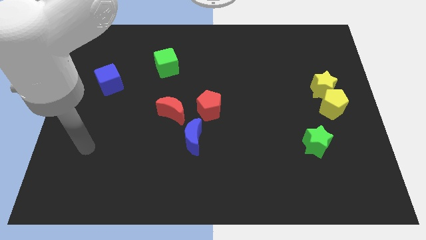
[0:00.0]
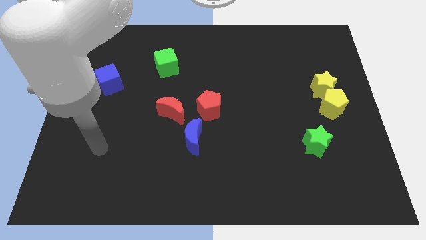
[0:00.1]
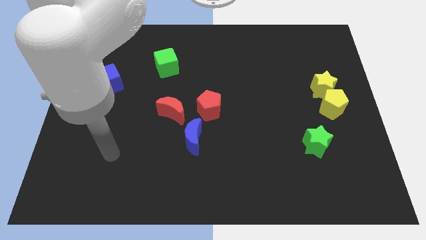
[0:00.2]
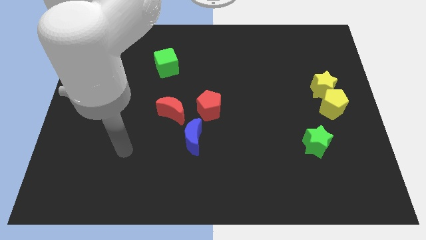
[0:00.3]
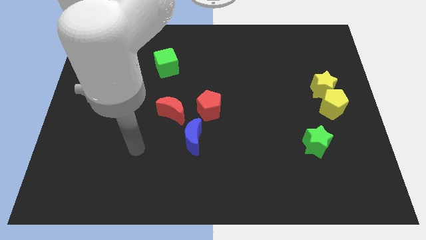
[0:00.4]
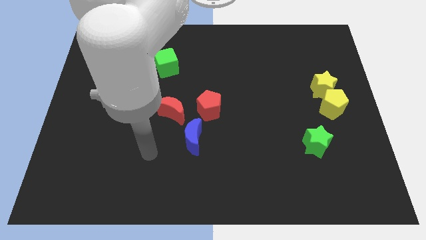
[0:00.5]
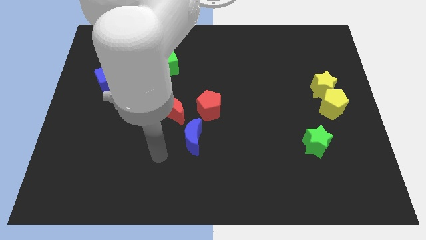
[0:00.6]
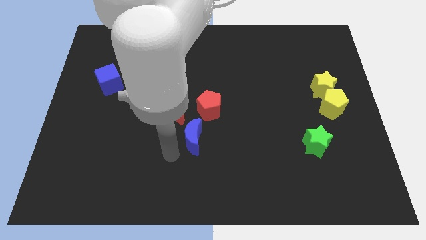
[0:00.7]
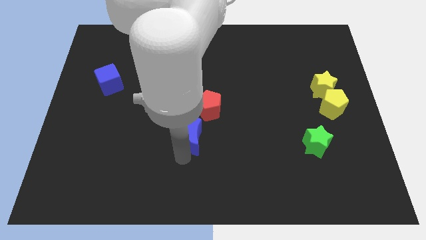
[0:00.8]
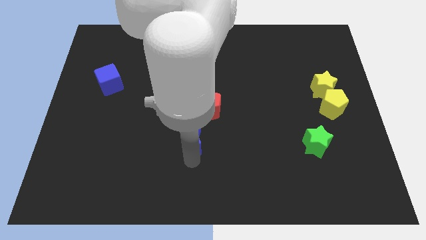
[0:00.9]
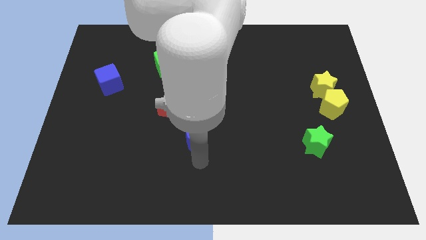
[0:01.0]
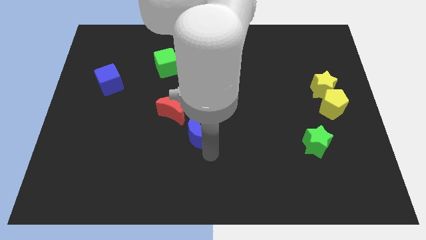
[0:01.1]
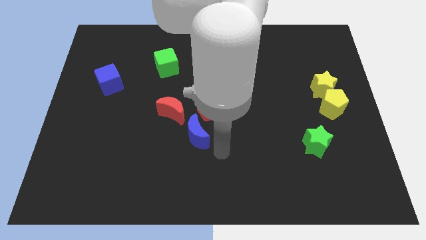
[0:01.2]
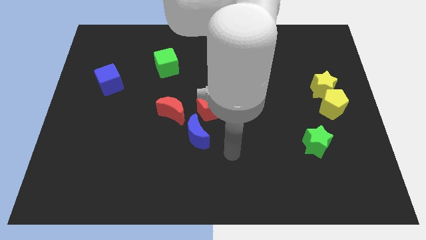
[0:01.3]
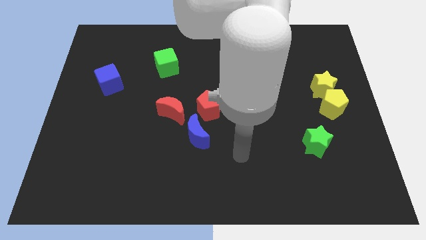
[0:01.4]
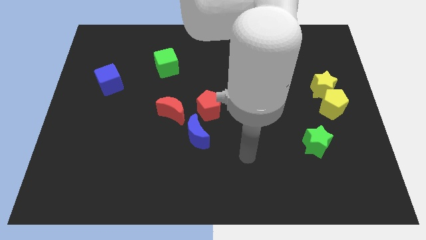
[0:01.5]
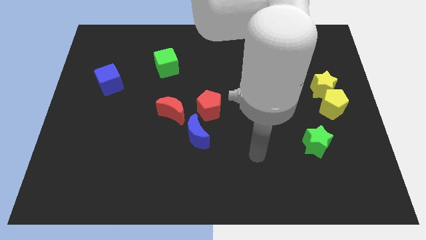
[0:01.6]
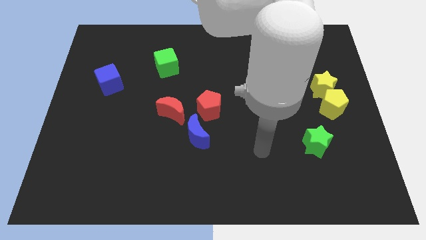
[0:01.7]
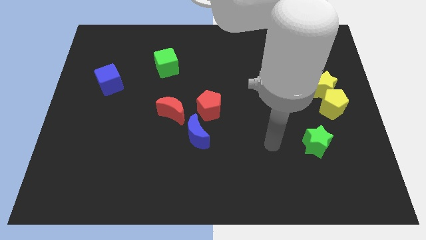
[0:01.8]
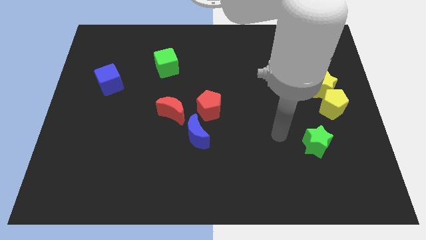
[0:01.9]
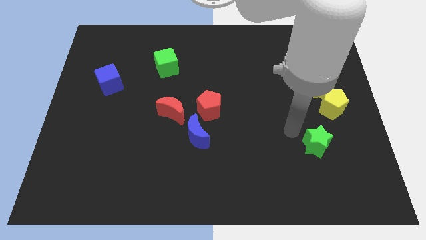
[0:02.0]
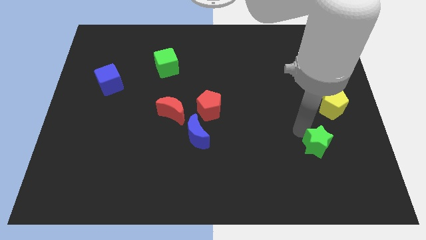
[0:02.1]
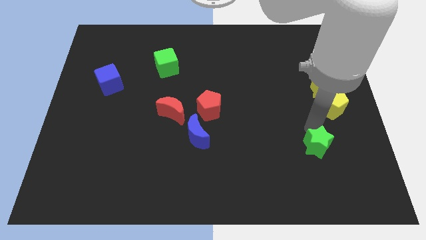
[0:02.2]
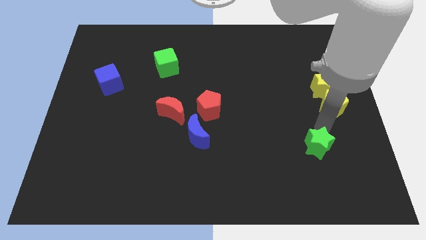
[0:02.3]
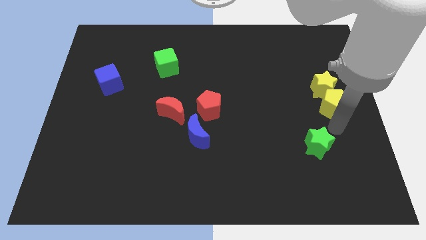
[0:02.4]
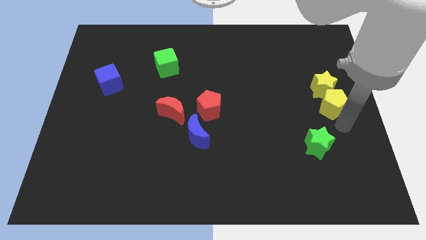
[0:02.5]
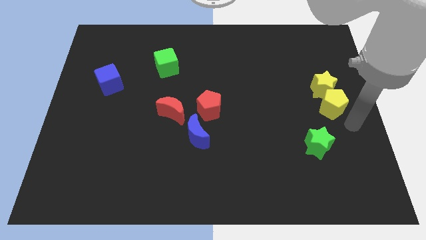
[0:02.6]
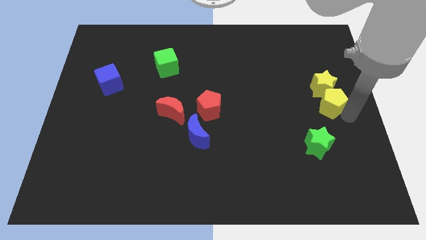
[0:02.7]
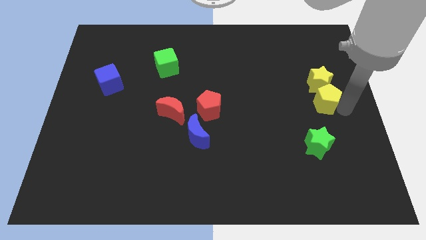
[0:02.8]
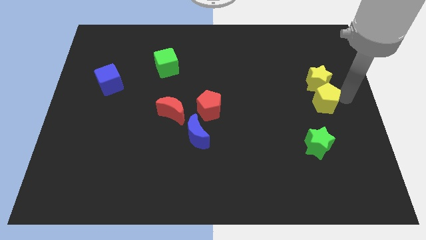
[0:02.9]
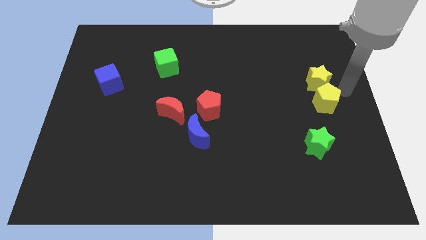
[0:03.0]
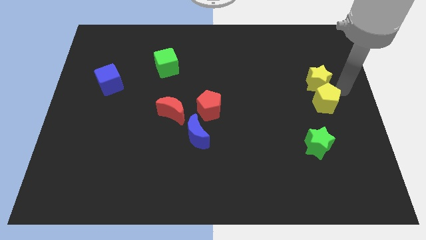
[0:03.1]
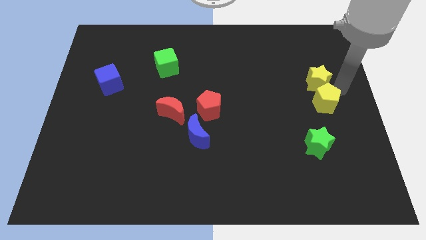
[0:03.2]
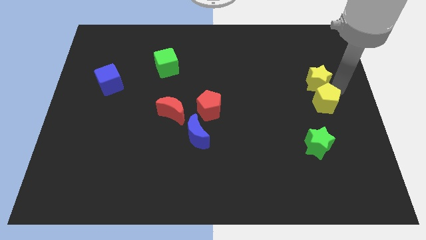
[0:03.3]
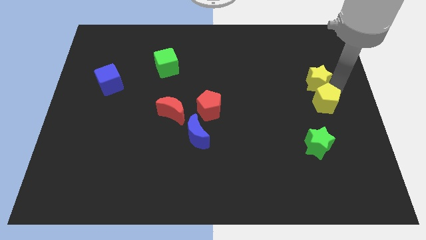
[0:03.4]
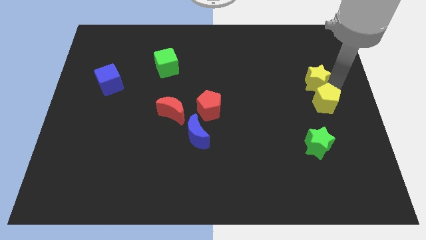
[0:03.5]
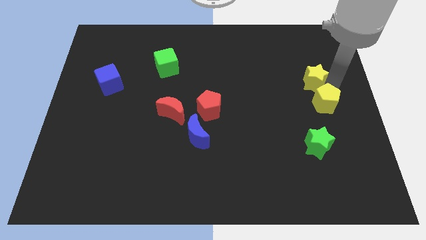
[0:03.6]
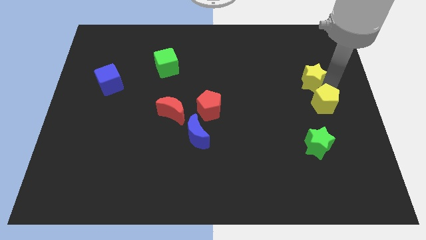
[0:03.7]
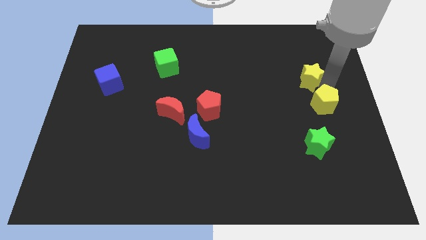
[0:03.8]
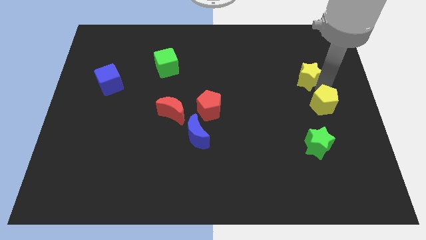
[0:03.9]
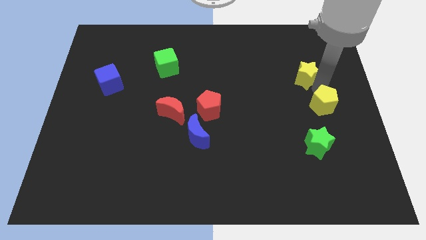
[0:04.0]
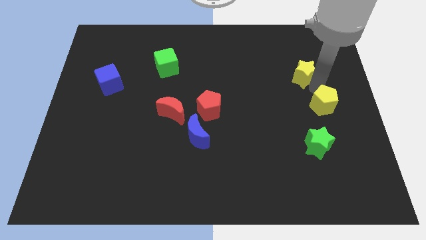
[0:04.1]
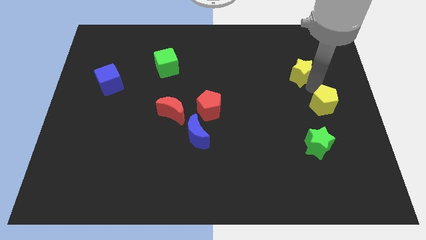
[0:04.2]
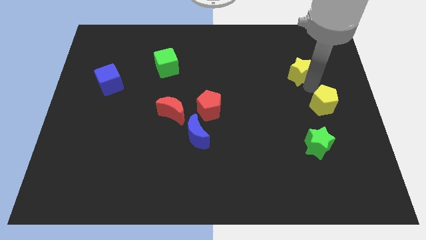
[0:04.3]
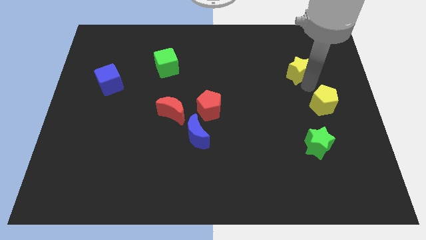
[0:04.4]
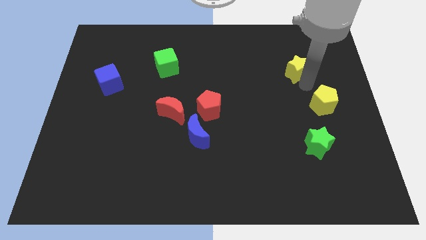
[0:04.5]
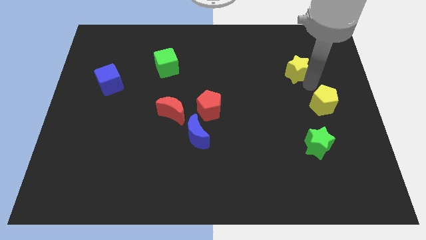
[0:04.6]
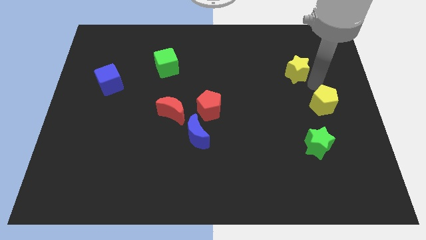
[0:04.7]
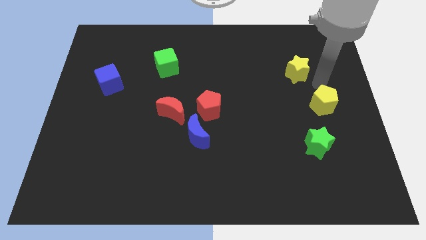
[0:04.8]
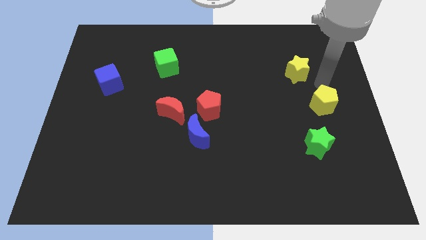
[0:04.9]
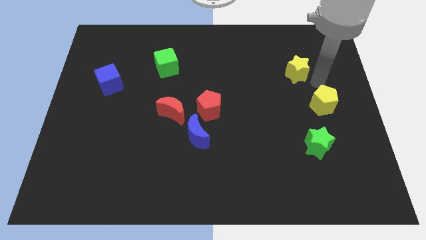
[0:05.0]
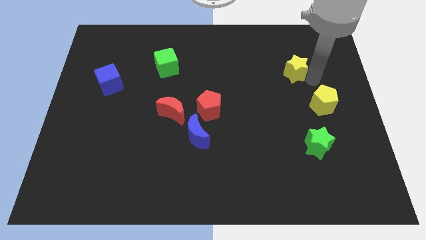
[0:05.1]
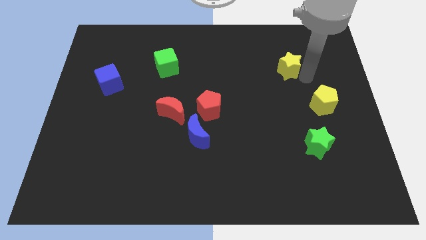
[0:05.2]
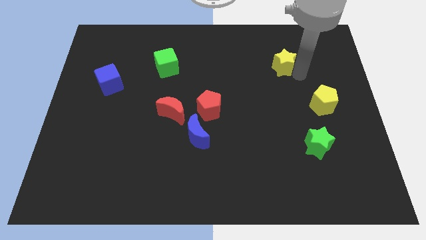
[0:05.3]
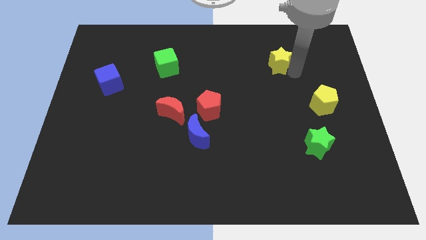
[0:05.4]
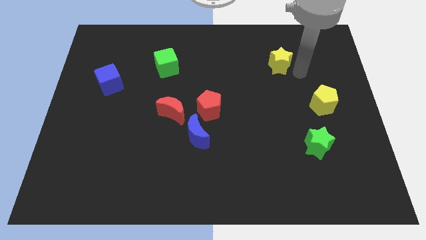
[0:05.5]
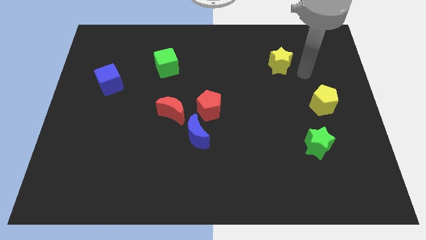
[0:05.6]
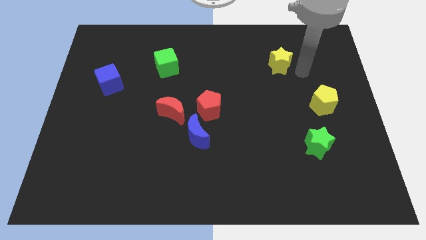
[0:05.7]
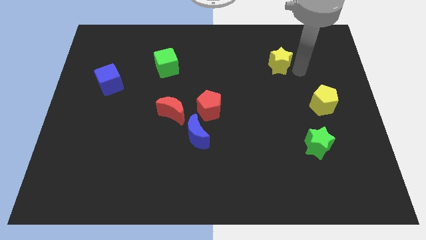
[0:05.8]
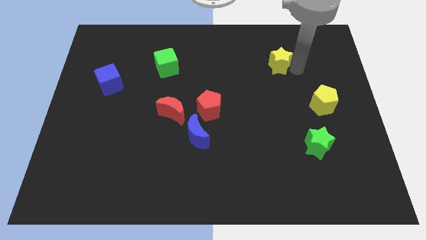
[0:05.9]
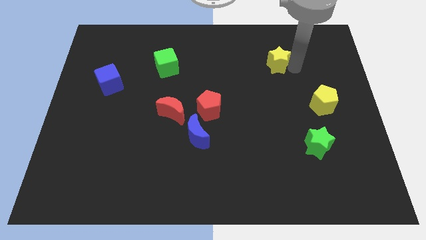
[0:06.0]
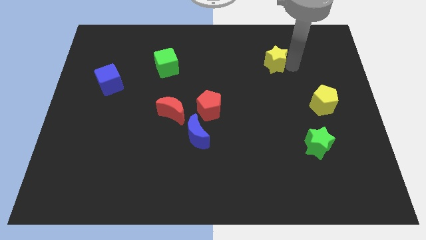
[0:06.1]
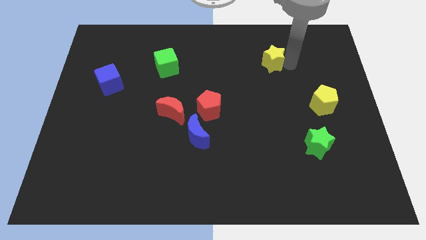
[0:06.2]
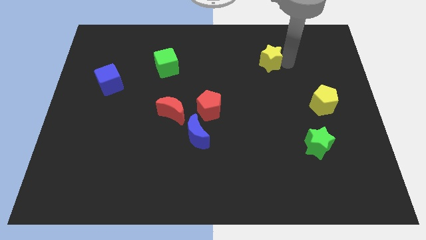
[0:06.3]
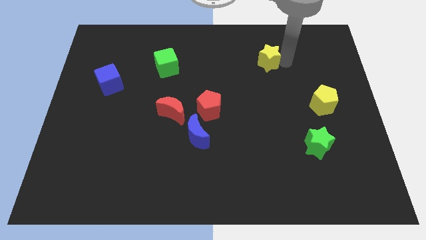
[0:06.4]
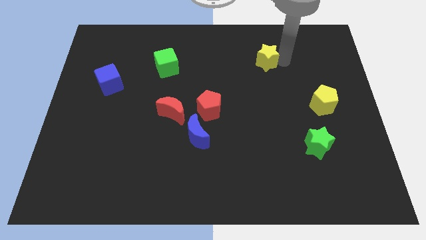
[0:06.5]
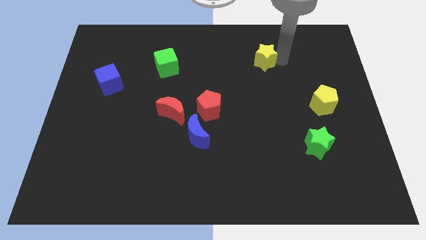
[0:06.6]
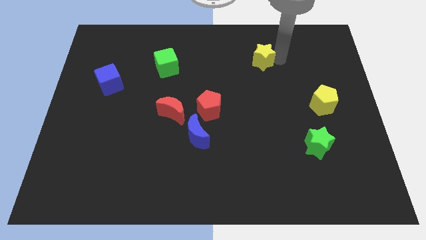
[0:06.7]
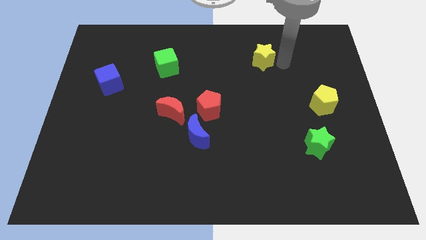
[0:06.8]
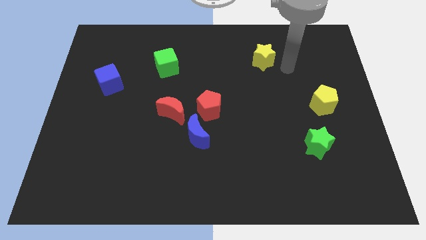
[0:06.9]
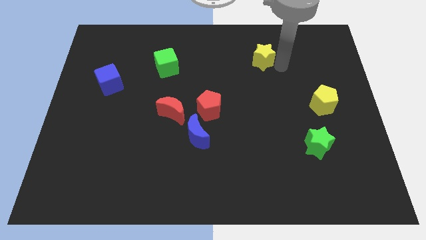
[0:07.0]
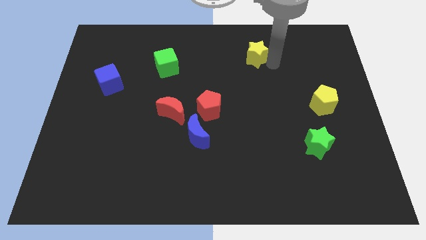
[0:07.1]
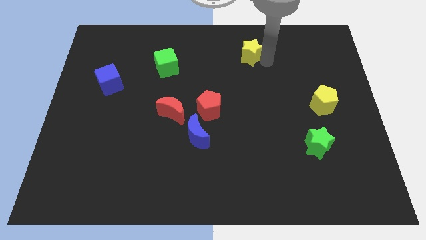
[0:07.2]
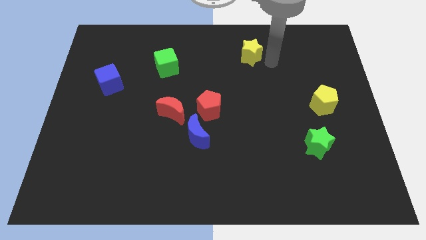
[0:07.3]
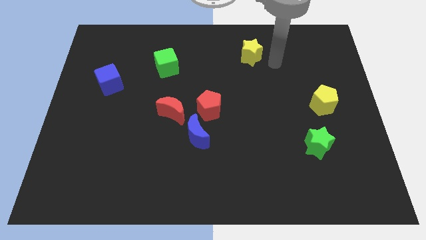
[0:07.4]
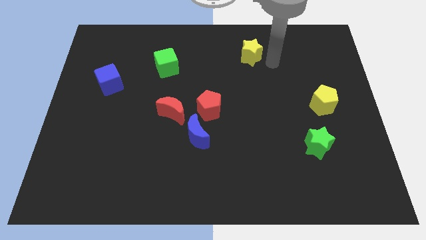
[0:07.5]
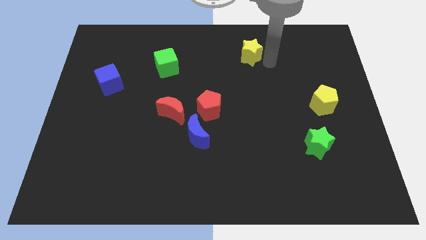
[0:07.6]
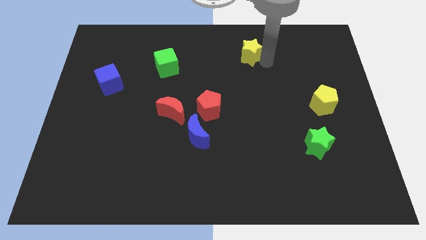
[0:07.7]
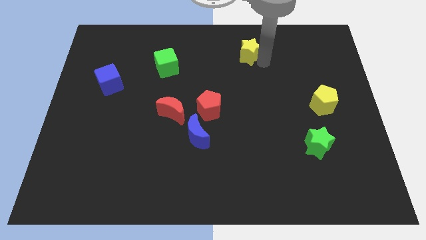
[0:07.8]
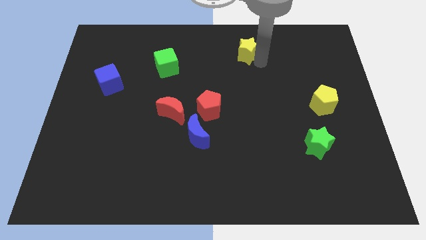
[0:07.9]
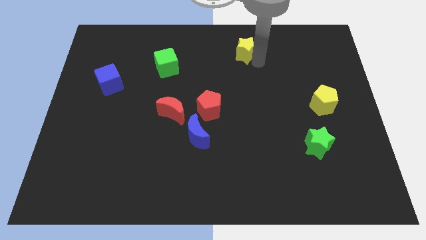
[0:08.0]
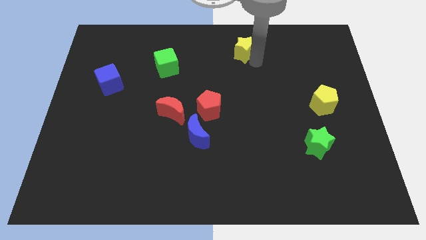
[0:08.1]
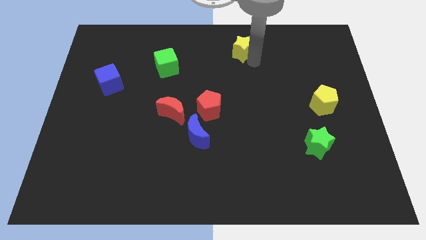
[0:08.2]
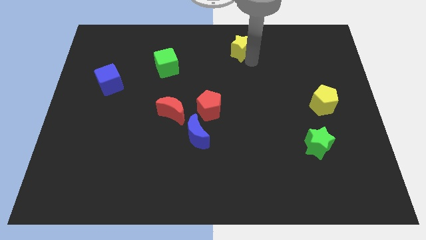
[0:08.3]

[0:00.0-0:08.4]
move the yellow star to the top
